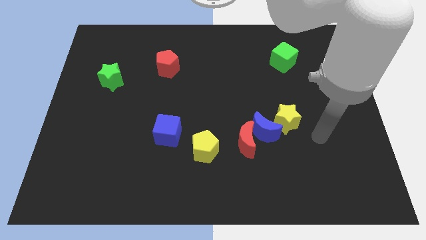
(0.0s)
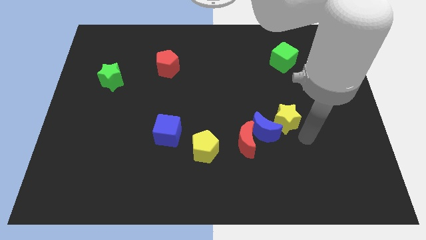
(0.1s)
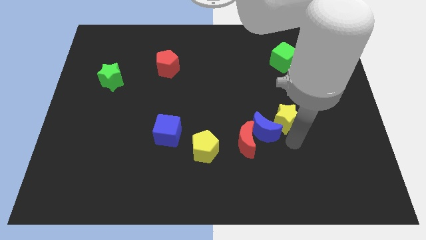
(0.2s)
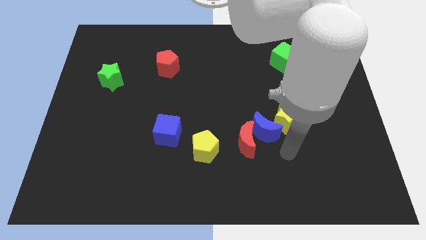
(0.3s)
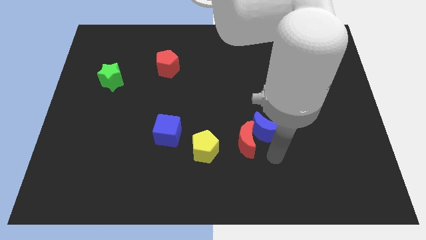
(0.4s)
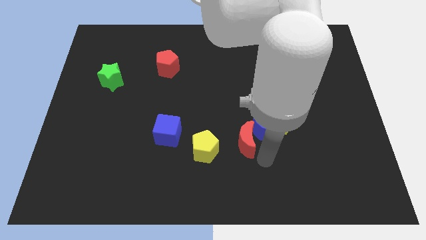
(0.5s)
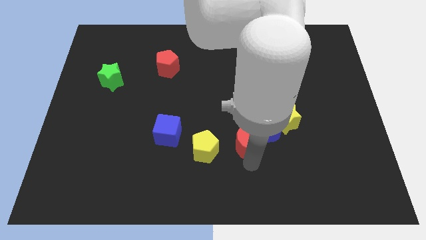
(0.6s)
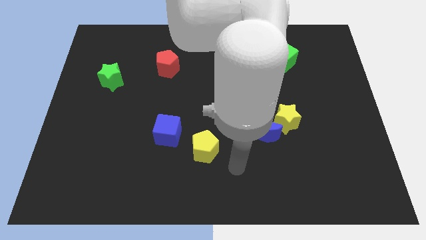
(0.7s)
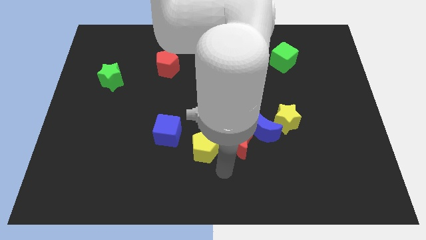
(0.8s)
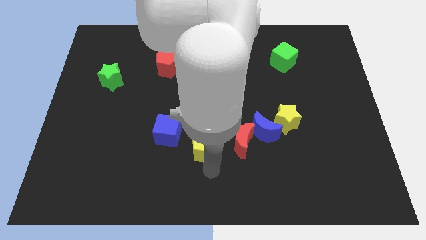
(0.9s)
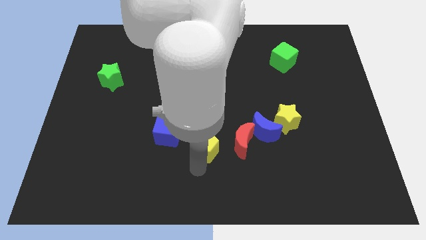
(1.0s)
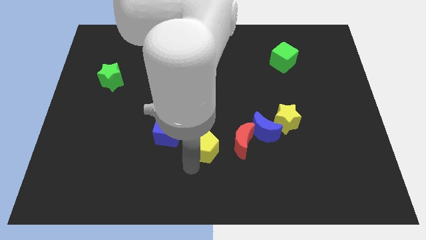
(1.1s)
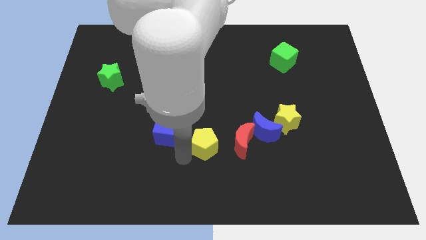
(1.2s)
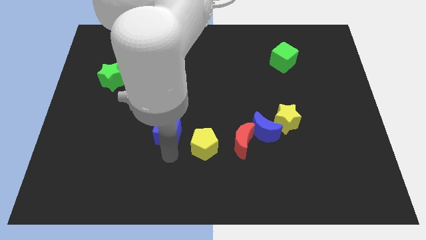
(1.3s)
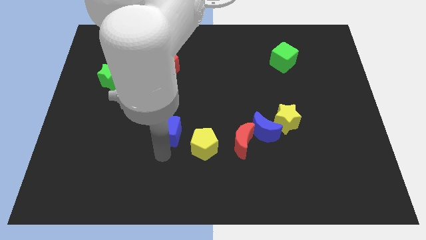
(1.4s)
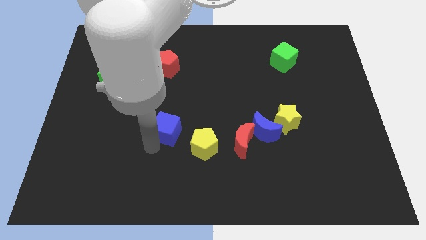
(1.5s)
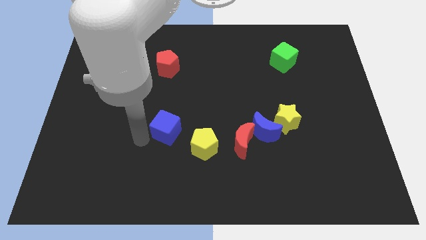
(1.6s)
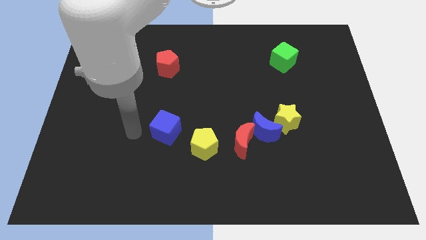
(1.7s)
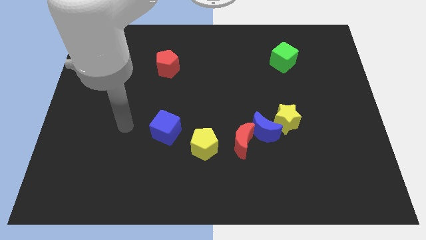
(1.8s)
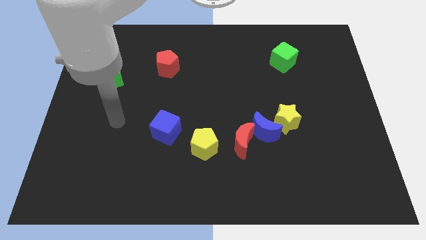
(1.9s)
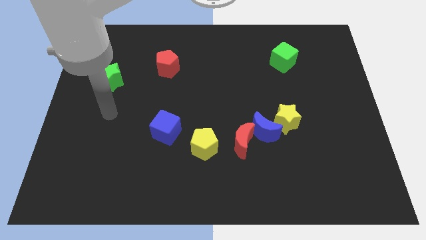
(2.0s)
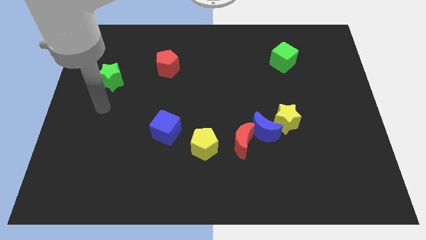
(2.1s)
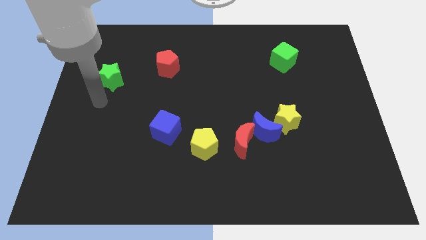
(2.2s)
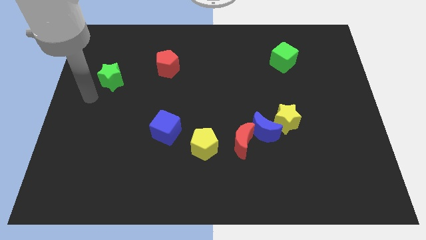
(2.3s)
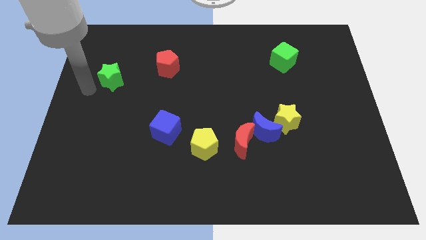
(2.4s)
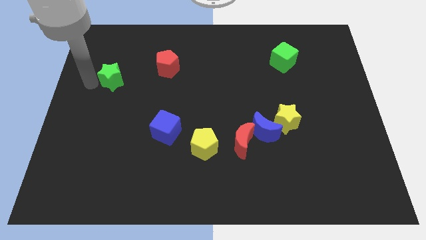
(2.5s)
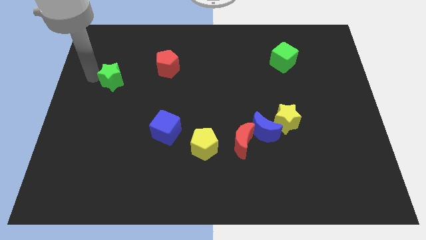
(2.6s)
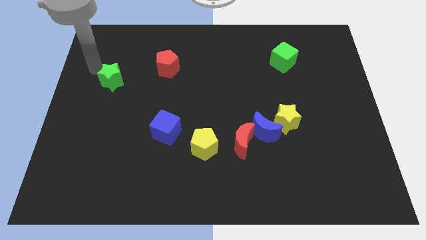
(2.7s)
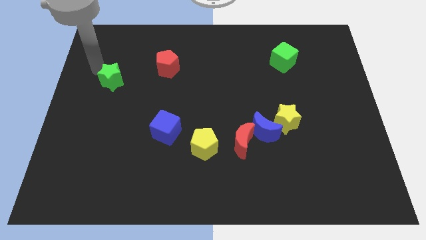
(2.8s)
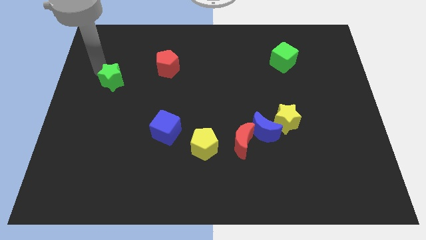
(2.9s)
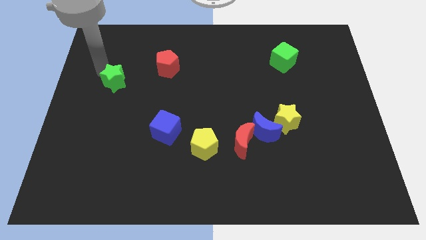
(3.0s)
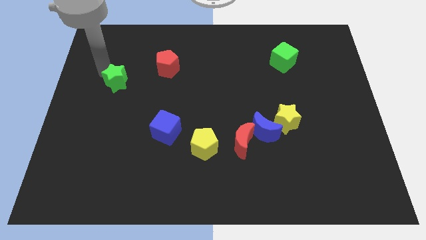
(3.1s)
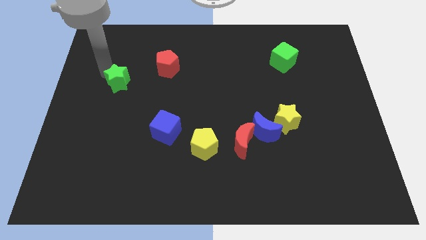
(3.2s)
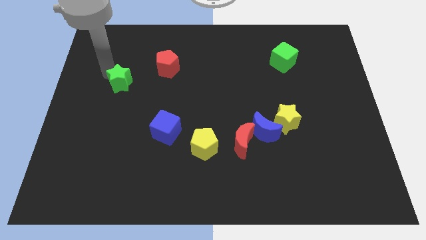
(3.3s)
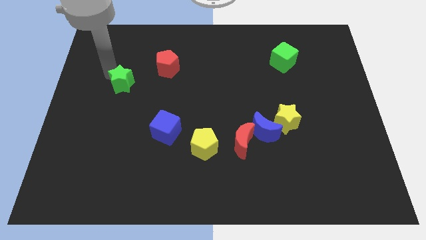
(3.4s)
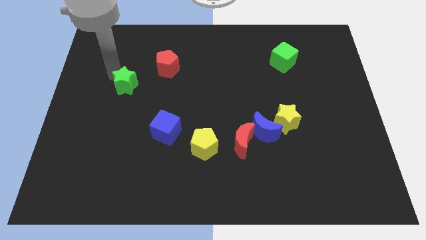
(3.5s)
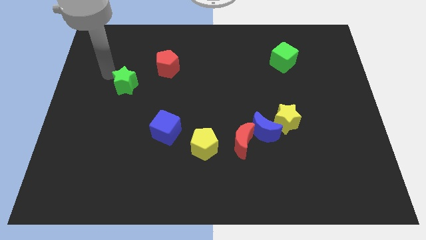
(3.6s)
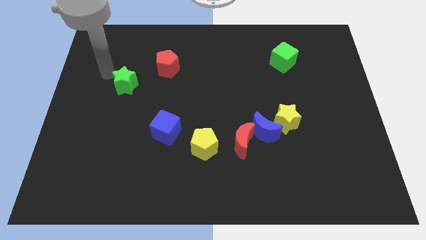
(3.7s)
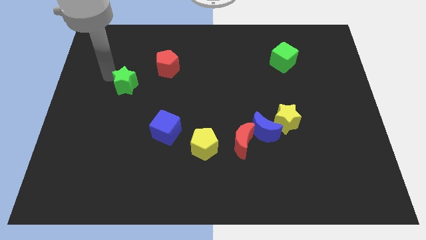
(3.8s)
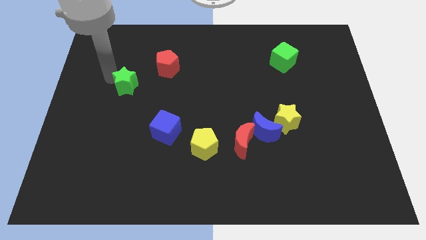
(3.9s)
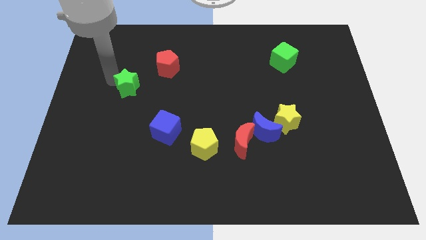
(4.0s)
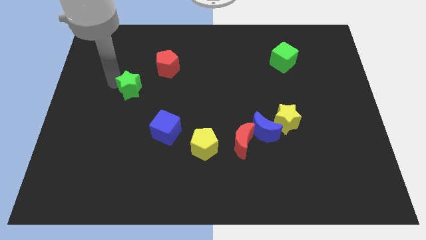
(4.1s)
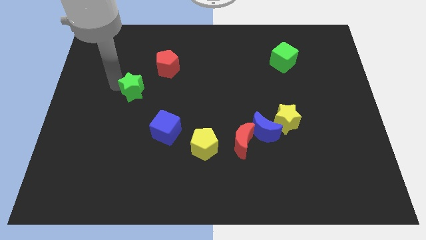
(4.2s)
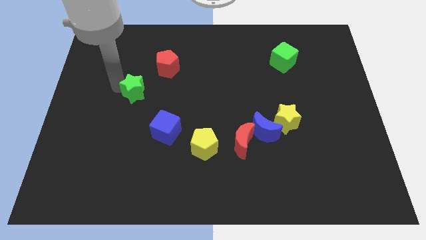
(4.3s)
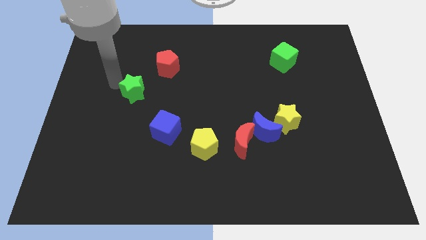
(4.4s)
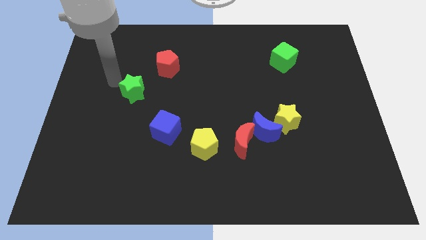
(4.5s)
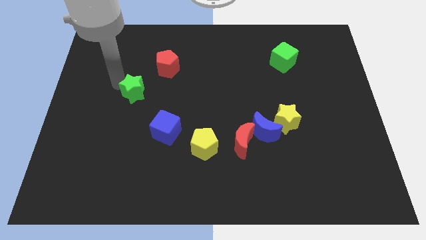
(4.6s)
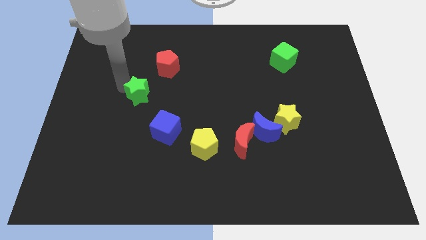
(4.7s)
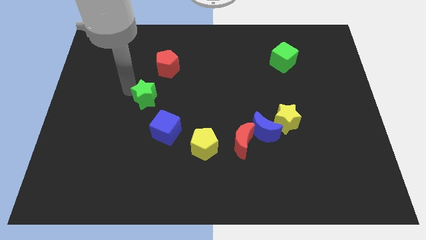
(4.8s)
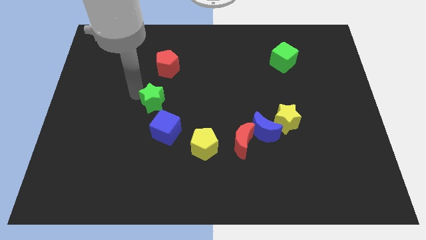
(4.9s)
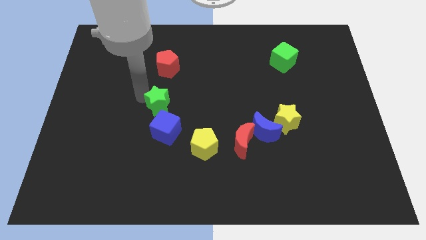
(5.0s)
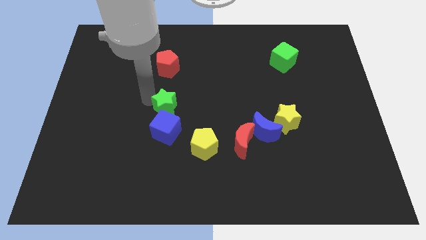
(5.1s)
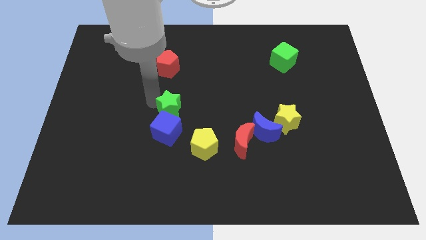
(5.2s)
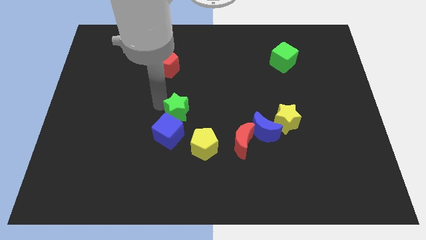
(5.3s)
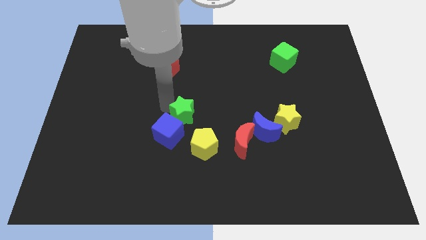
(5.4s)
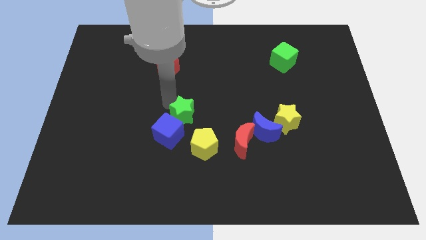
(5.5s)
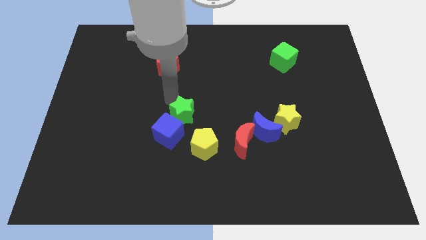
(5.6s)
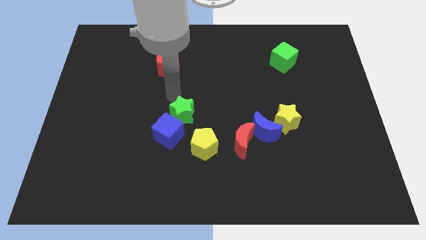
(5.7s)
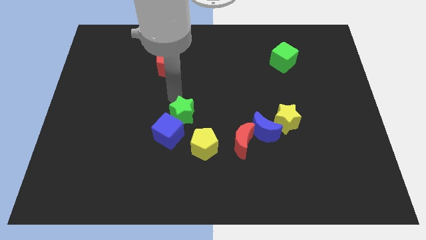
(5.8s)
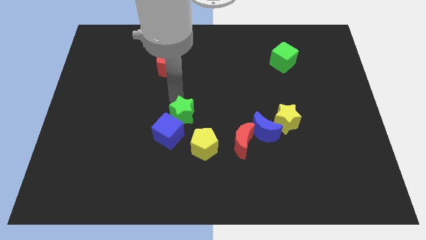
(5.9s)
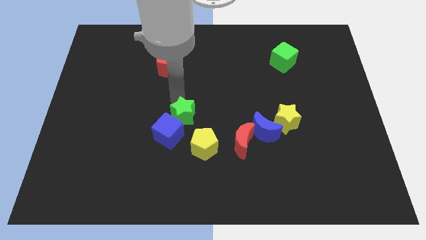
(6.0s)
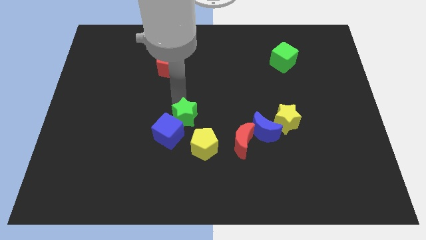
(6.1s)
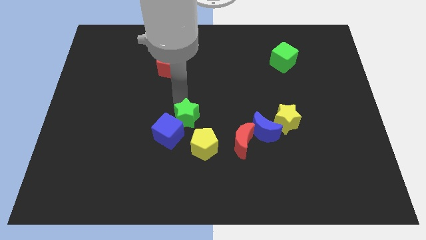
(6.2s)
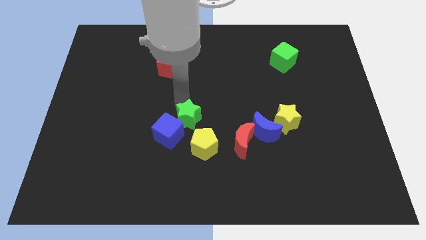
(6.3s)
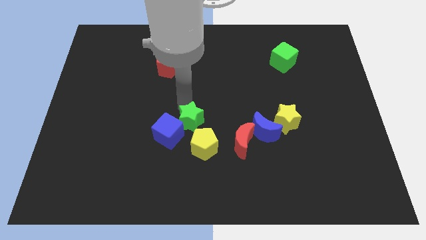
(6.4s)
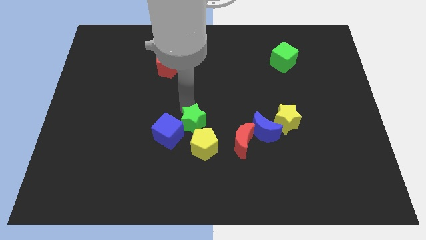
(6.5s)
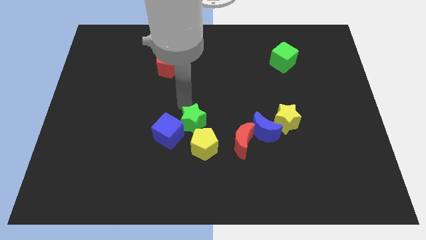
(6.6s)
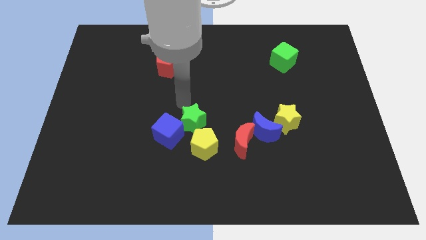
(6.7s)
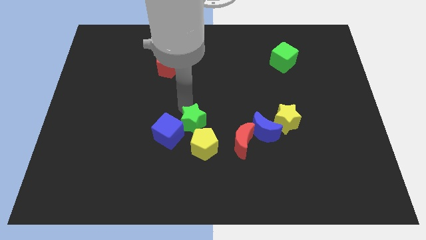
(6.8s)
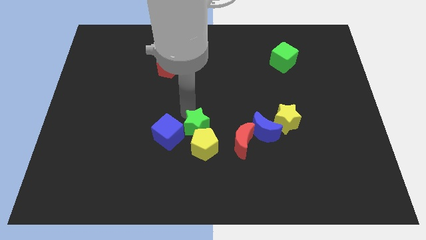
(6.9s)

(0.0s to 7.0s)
move the green star close to the yellow pentagon
